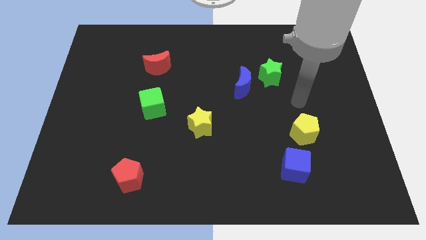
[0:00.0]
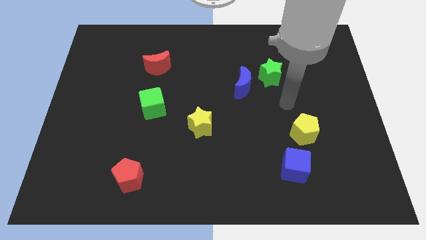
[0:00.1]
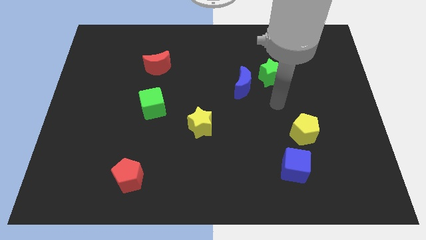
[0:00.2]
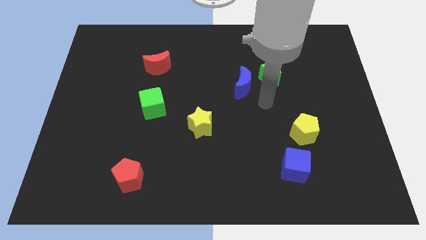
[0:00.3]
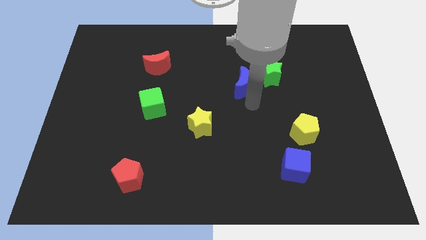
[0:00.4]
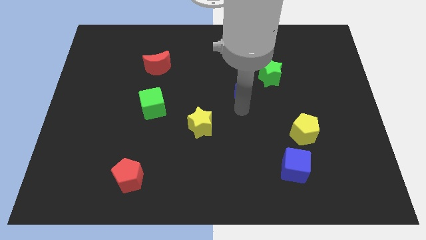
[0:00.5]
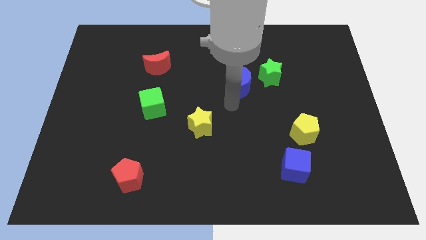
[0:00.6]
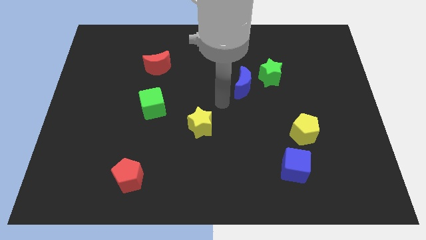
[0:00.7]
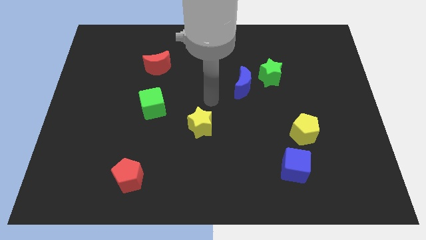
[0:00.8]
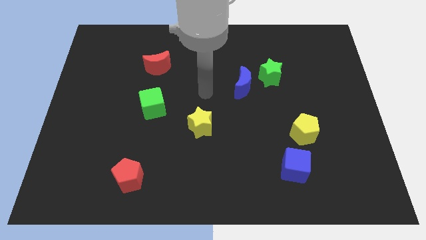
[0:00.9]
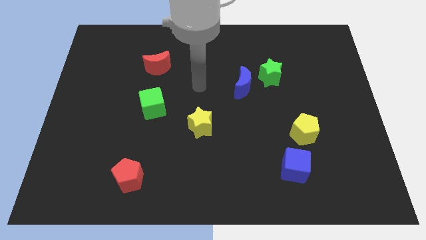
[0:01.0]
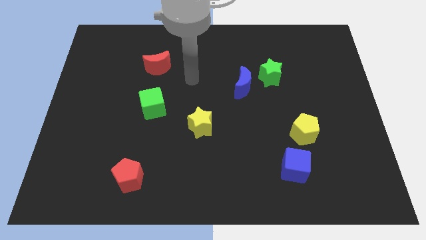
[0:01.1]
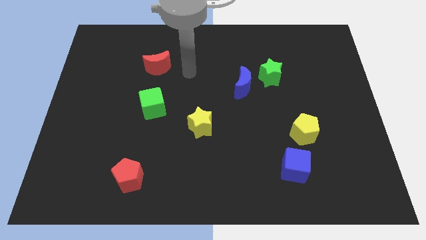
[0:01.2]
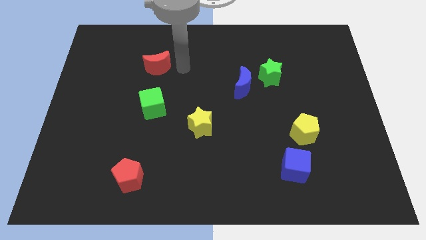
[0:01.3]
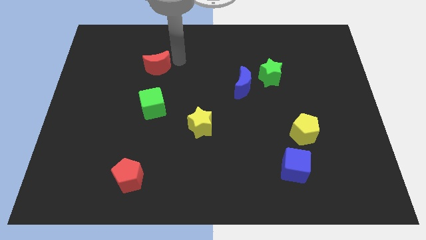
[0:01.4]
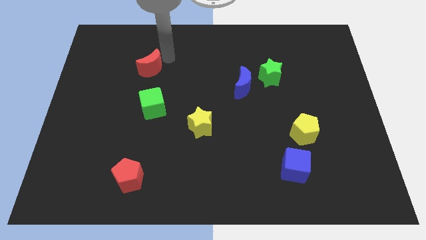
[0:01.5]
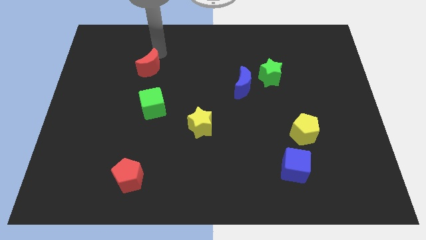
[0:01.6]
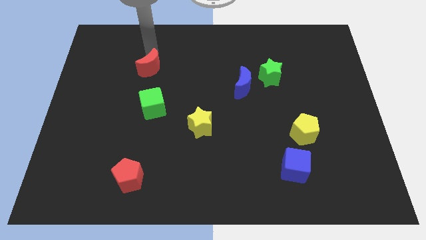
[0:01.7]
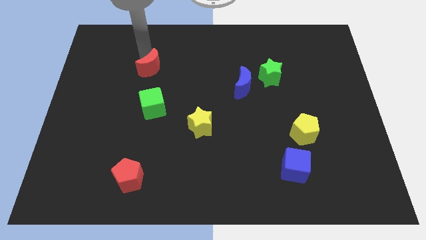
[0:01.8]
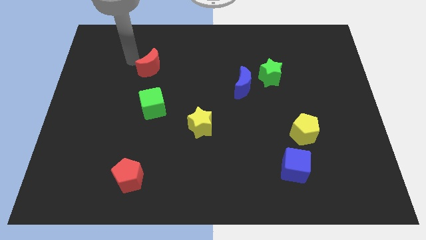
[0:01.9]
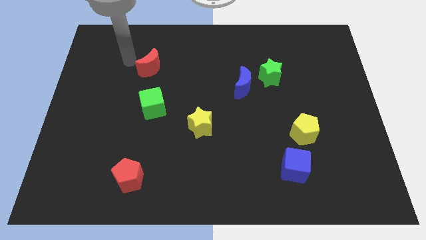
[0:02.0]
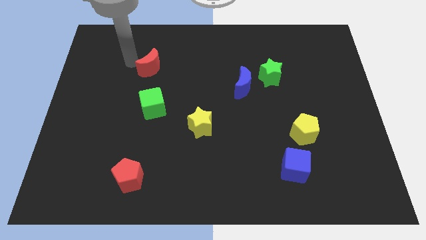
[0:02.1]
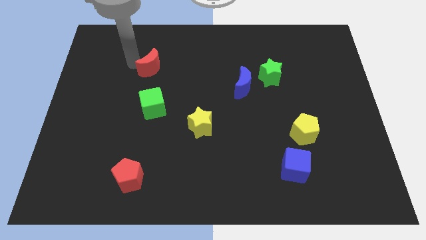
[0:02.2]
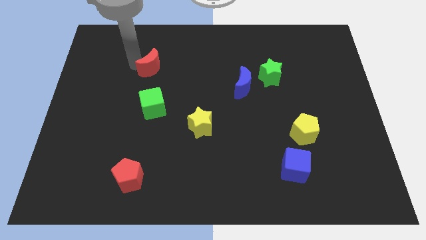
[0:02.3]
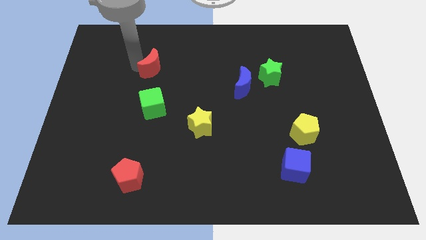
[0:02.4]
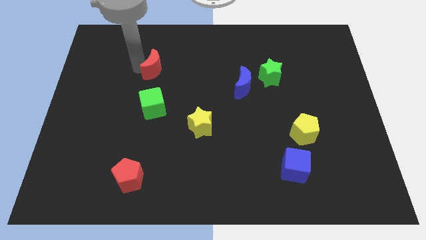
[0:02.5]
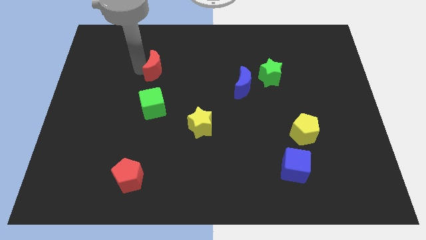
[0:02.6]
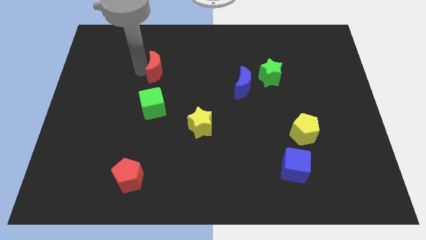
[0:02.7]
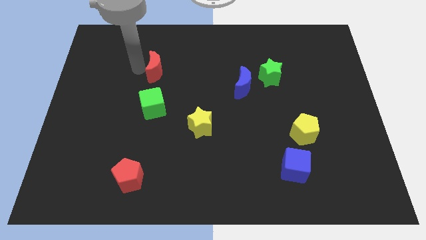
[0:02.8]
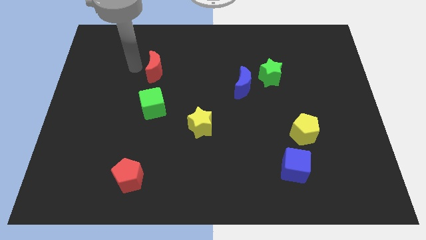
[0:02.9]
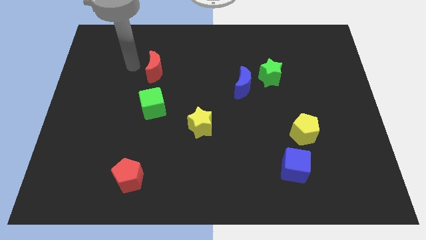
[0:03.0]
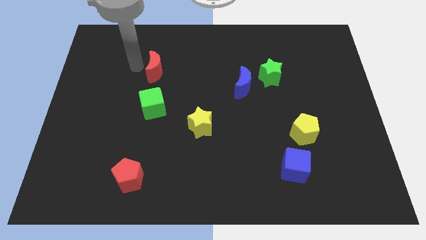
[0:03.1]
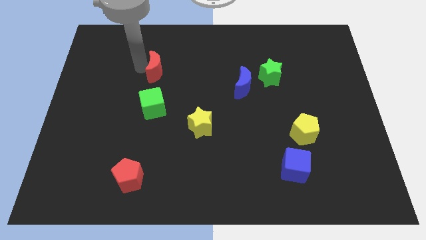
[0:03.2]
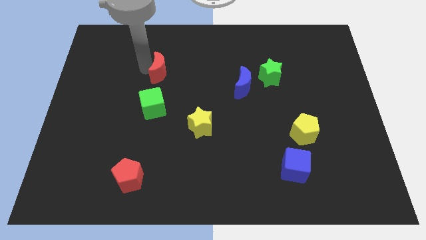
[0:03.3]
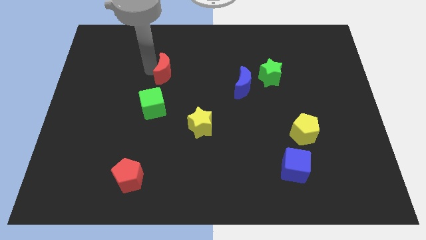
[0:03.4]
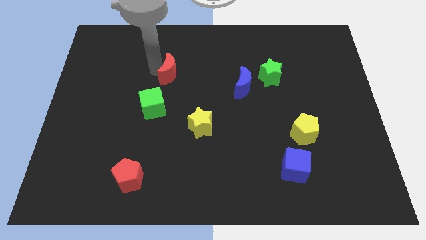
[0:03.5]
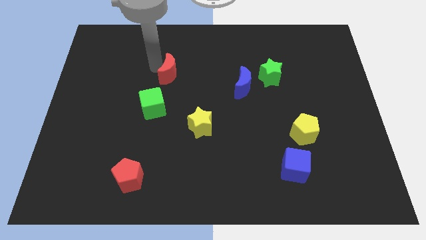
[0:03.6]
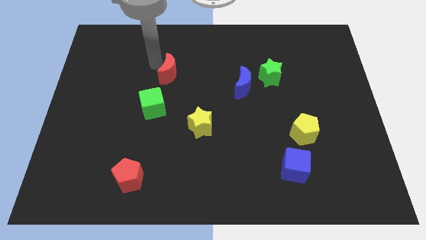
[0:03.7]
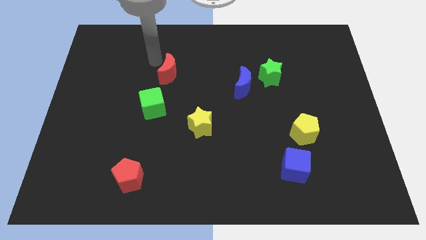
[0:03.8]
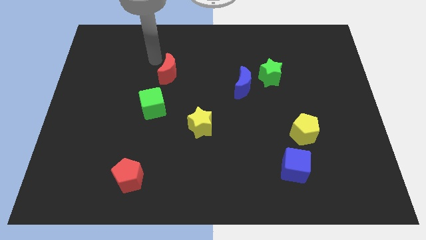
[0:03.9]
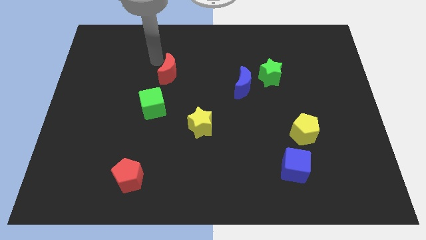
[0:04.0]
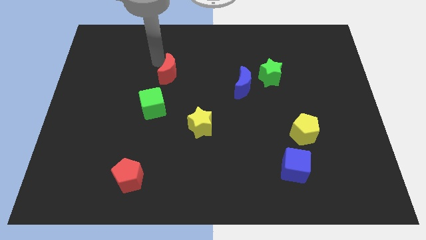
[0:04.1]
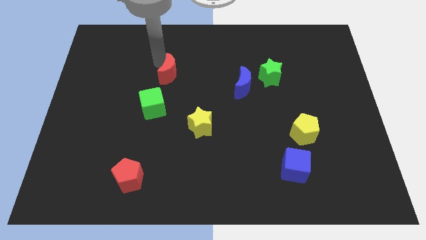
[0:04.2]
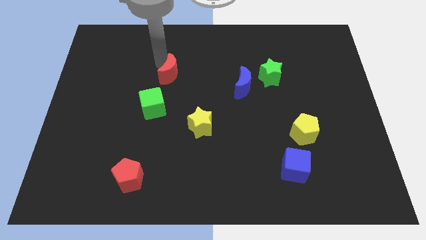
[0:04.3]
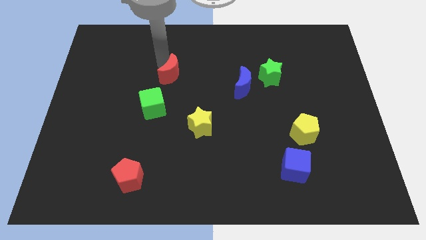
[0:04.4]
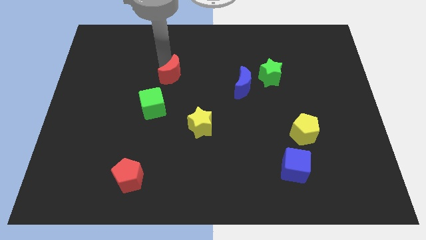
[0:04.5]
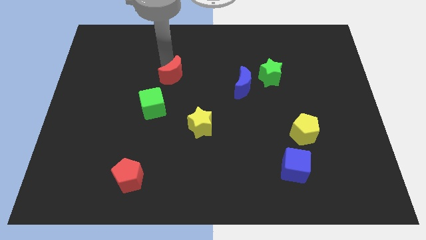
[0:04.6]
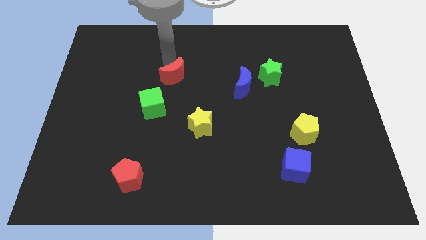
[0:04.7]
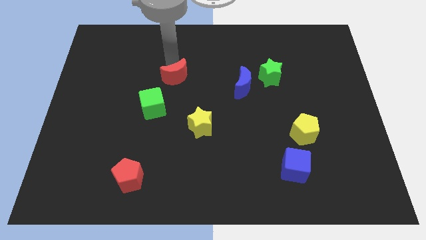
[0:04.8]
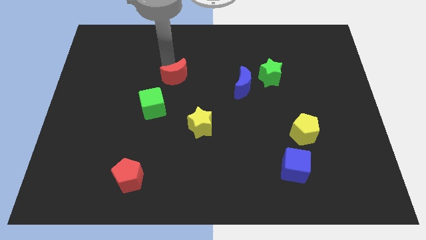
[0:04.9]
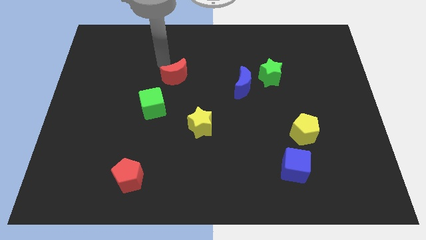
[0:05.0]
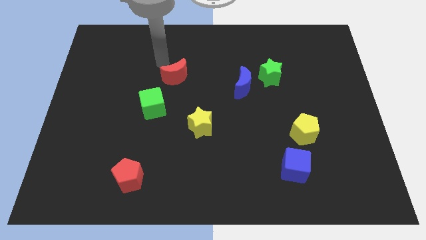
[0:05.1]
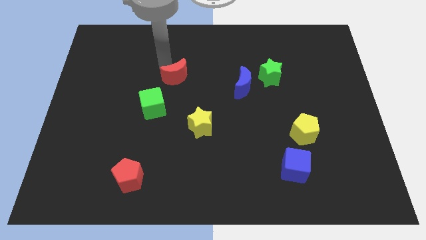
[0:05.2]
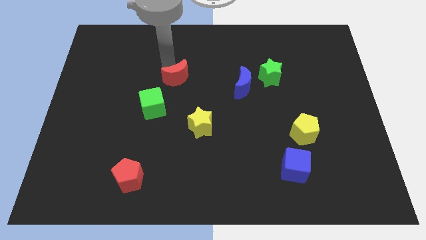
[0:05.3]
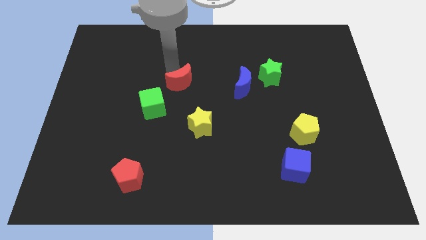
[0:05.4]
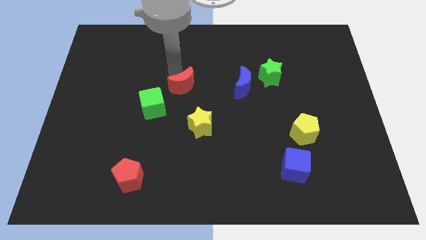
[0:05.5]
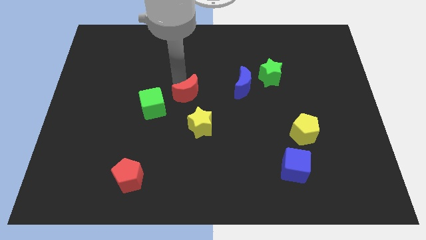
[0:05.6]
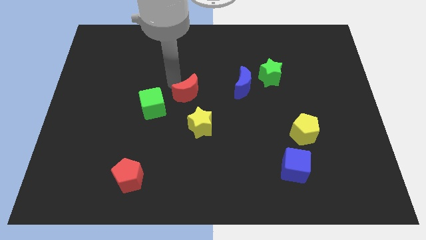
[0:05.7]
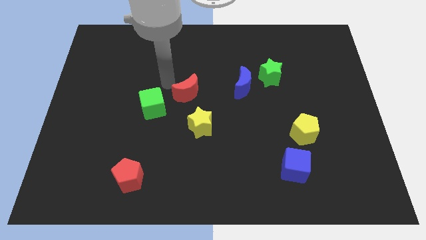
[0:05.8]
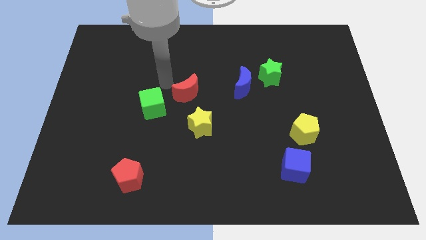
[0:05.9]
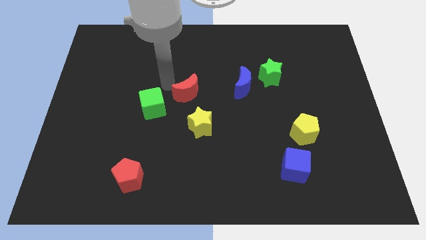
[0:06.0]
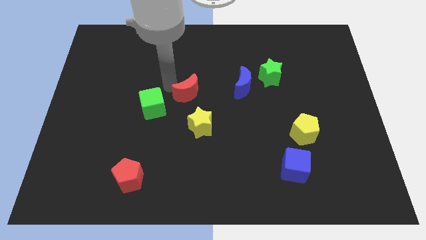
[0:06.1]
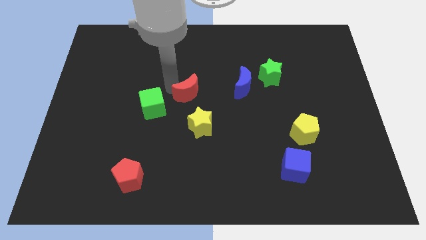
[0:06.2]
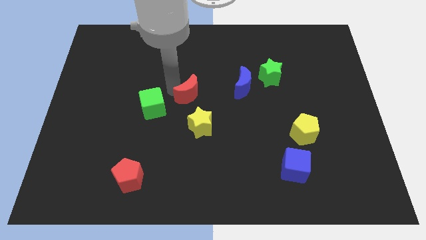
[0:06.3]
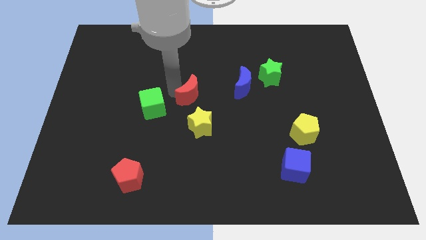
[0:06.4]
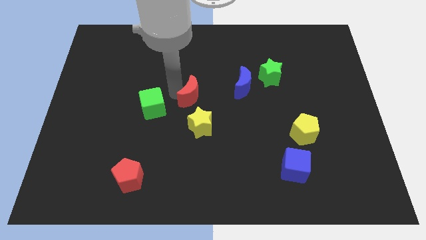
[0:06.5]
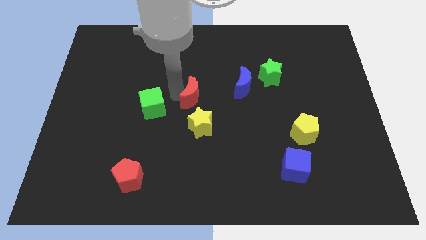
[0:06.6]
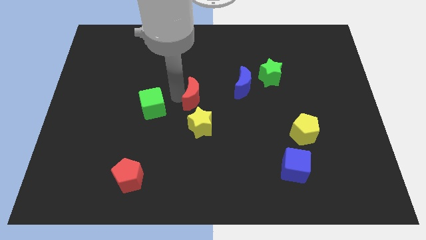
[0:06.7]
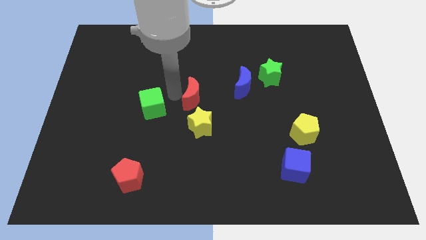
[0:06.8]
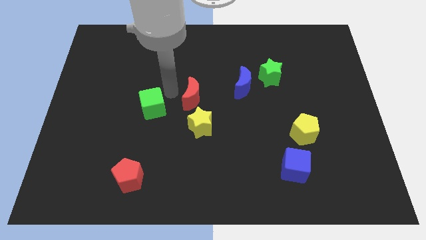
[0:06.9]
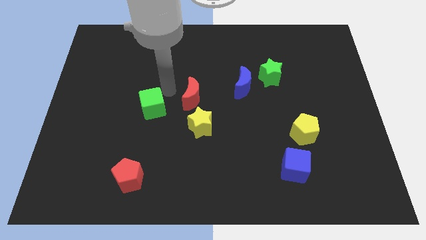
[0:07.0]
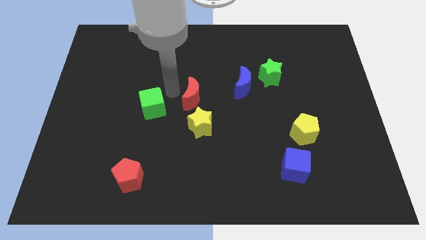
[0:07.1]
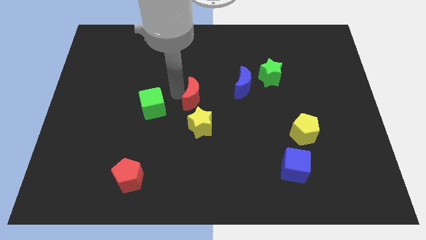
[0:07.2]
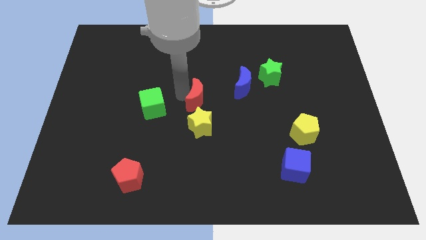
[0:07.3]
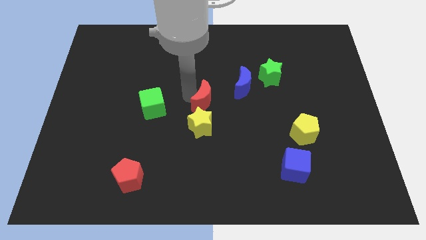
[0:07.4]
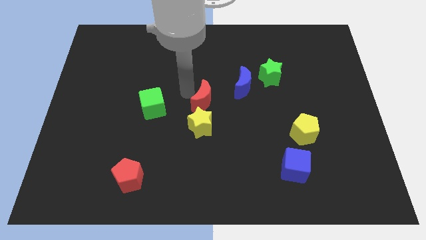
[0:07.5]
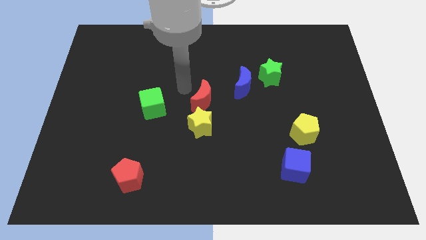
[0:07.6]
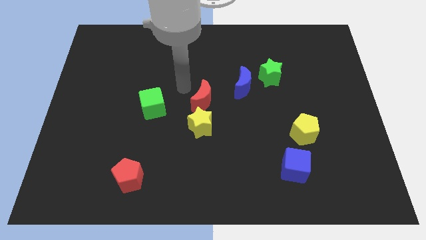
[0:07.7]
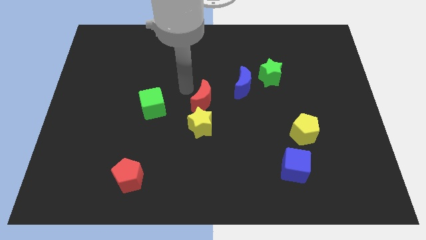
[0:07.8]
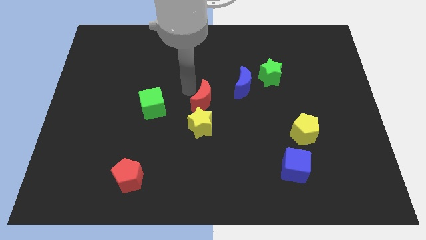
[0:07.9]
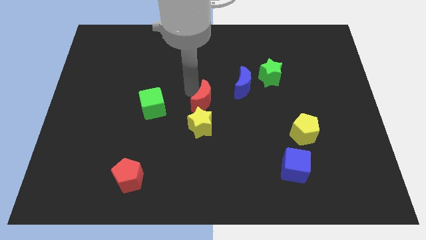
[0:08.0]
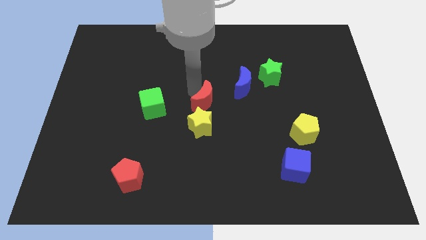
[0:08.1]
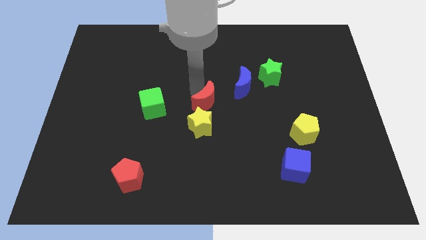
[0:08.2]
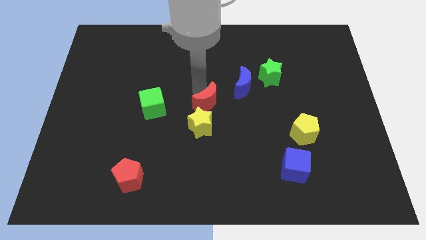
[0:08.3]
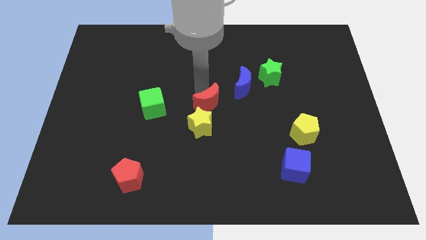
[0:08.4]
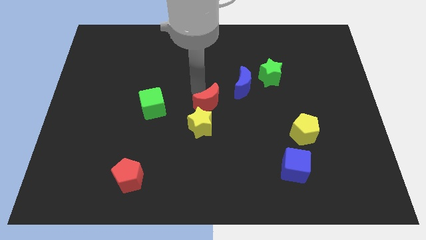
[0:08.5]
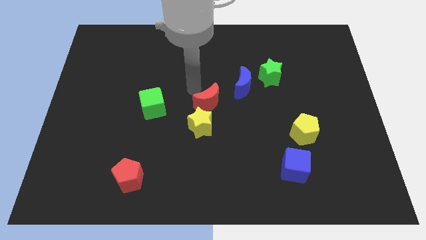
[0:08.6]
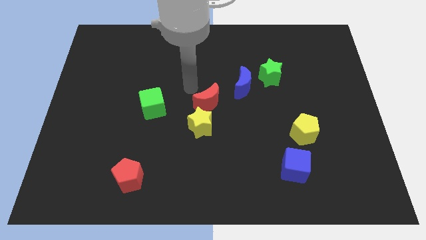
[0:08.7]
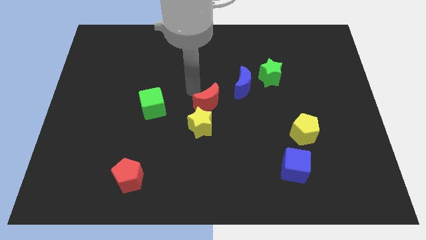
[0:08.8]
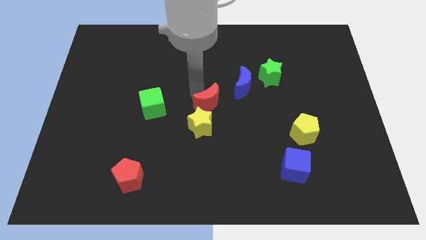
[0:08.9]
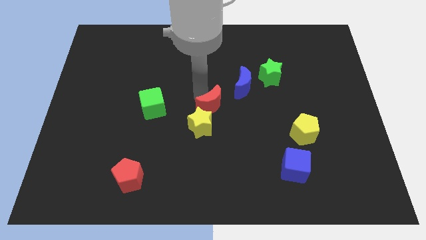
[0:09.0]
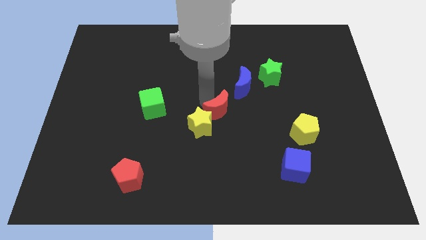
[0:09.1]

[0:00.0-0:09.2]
move the red moon downwards and to the right
